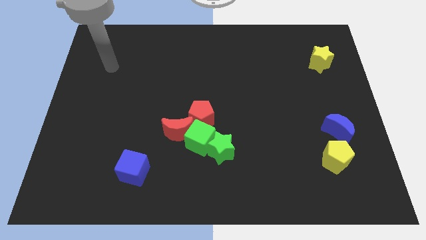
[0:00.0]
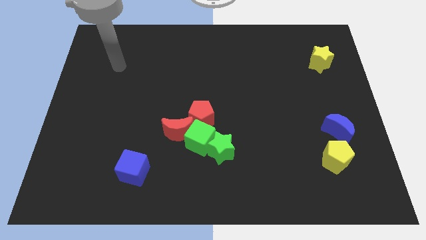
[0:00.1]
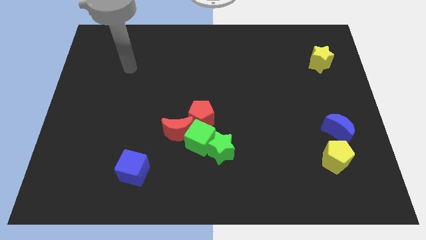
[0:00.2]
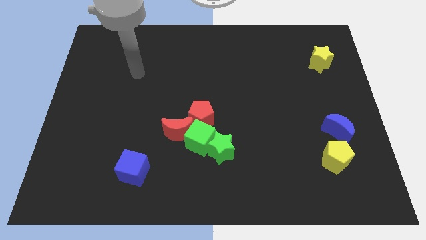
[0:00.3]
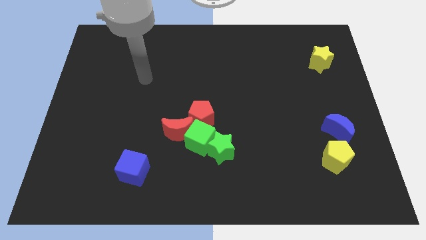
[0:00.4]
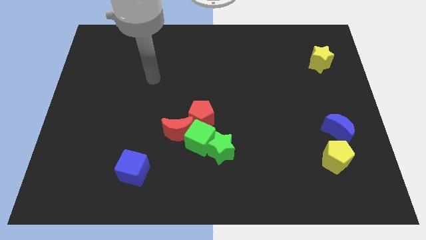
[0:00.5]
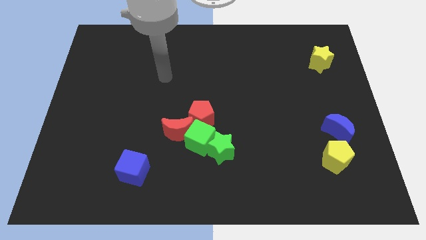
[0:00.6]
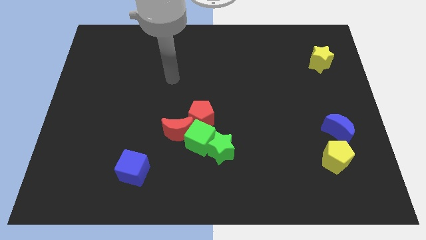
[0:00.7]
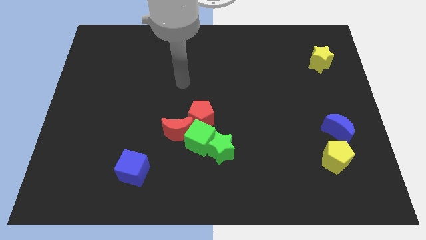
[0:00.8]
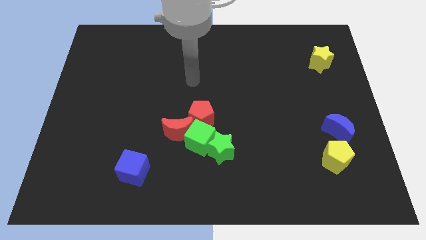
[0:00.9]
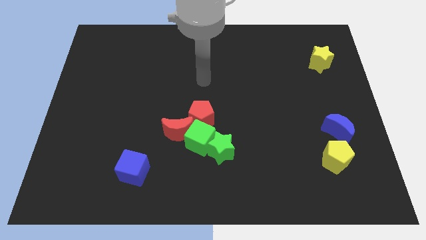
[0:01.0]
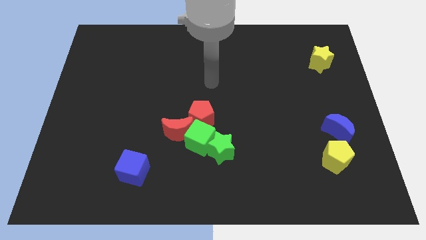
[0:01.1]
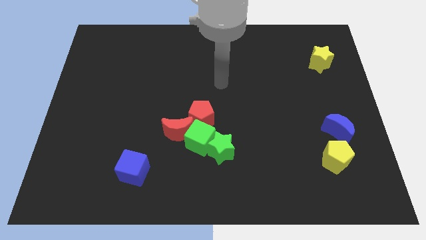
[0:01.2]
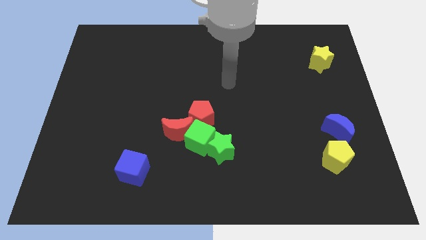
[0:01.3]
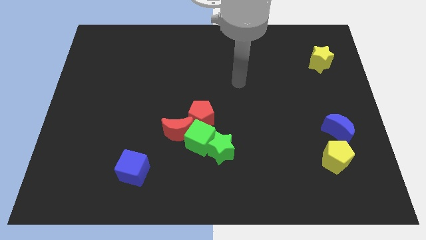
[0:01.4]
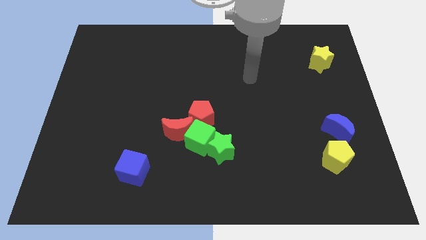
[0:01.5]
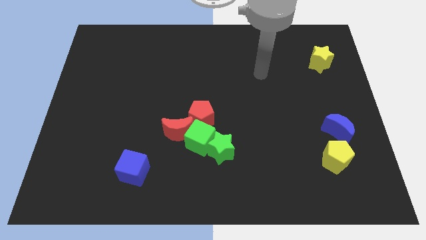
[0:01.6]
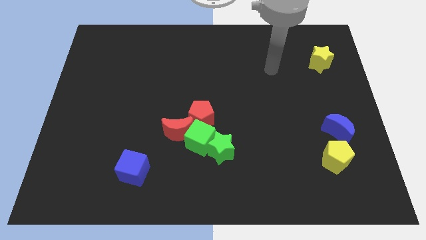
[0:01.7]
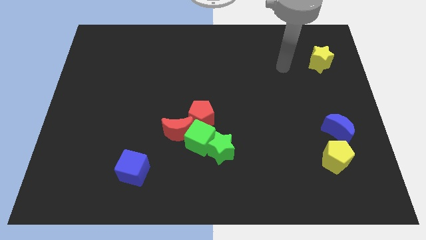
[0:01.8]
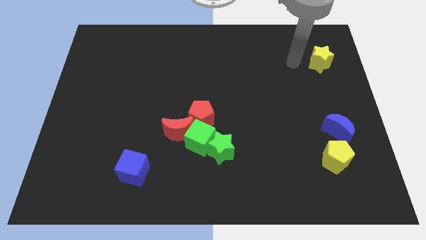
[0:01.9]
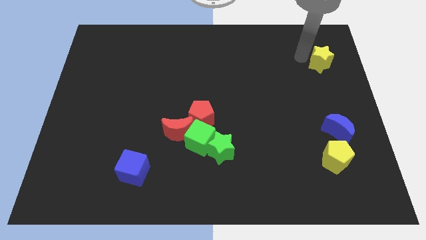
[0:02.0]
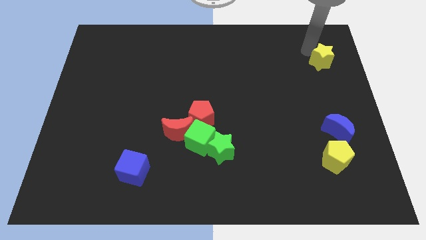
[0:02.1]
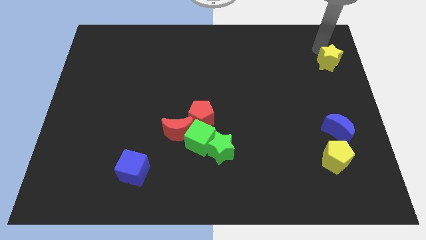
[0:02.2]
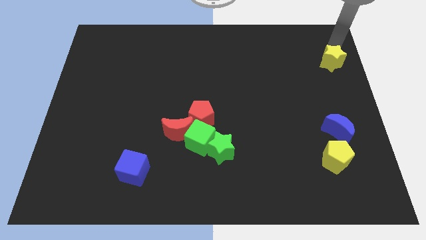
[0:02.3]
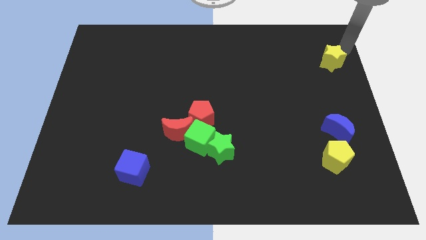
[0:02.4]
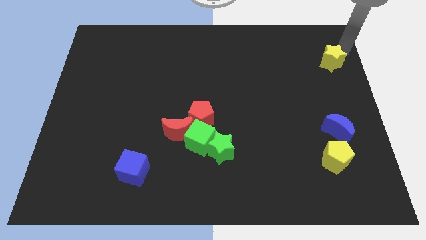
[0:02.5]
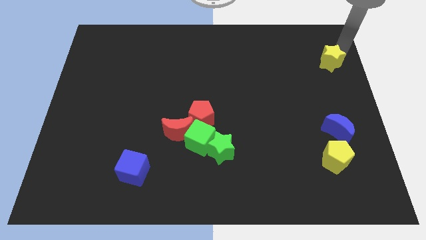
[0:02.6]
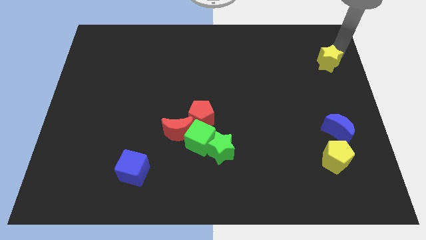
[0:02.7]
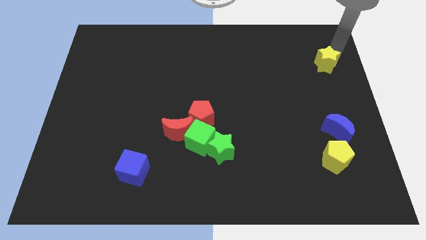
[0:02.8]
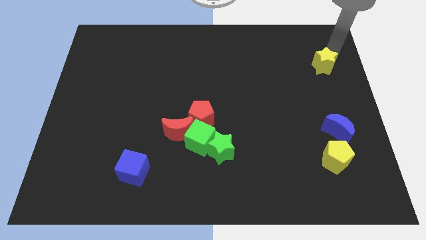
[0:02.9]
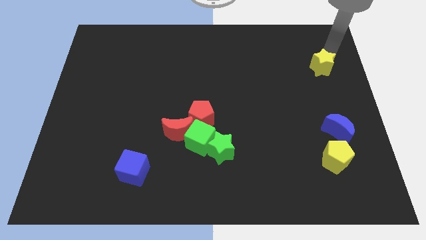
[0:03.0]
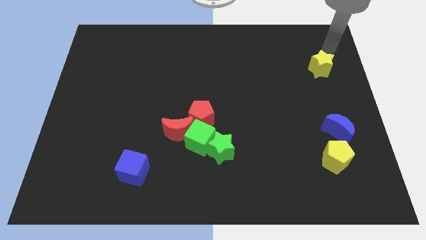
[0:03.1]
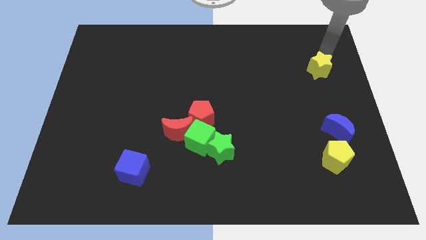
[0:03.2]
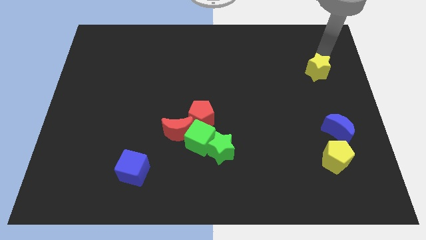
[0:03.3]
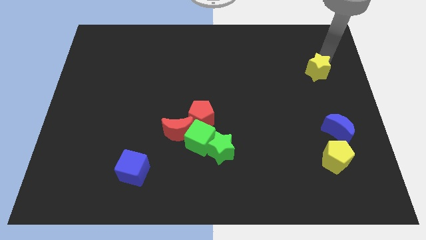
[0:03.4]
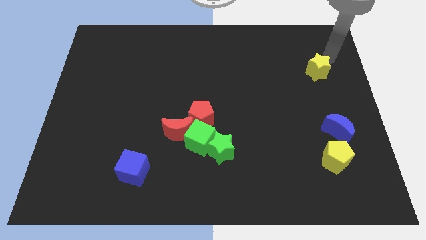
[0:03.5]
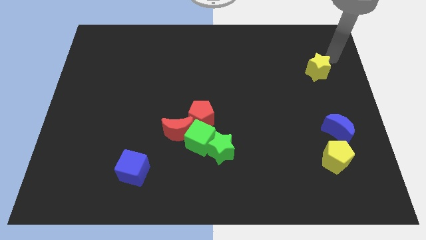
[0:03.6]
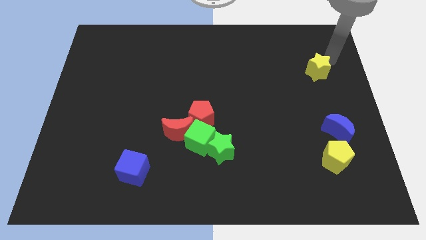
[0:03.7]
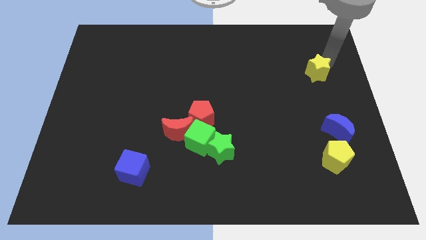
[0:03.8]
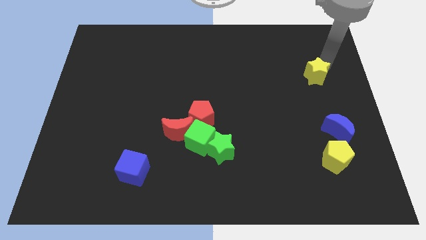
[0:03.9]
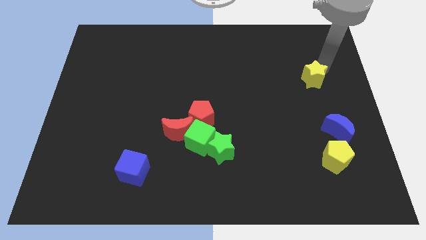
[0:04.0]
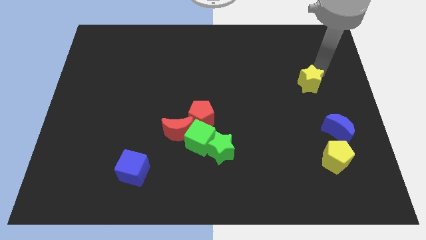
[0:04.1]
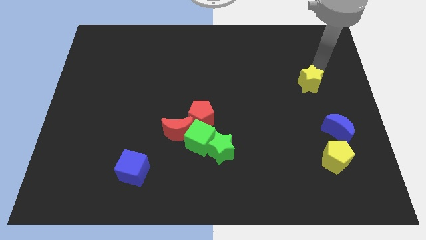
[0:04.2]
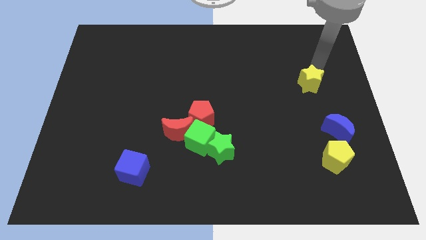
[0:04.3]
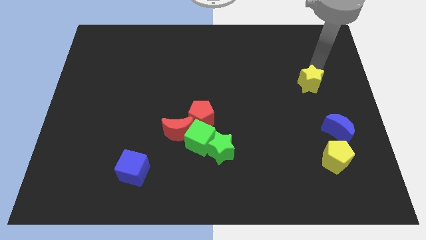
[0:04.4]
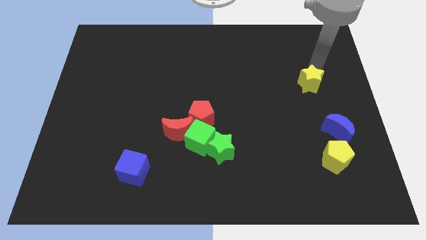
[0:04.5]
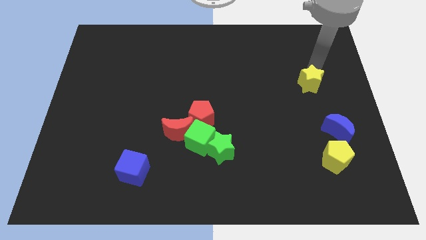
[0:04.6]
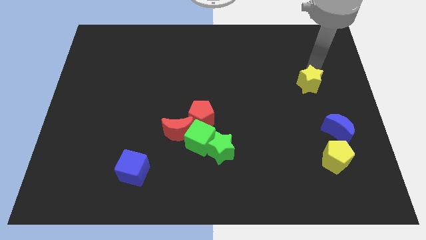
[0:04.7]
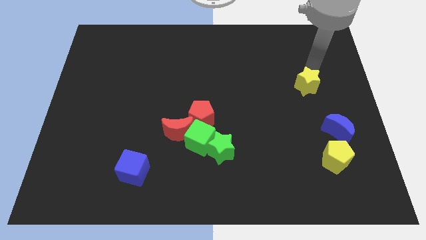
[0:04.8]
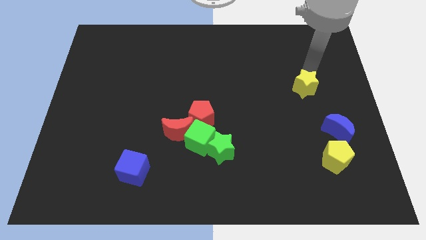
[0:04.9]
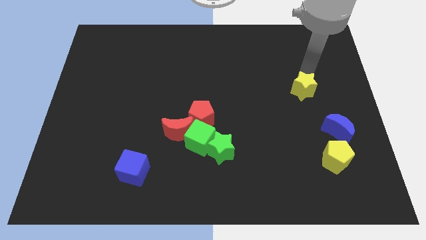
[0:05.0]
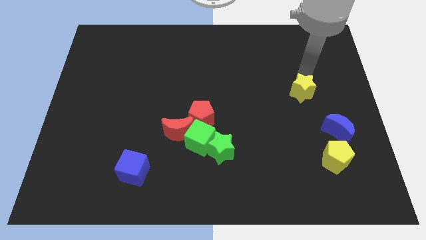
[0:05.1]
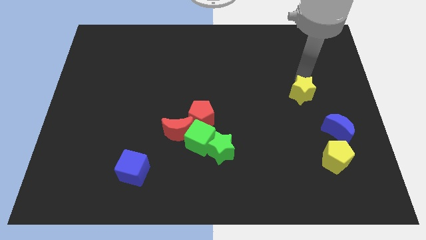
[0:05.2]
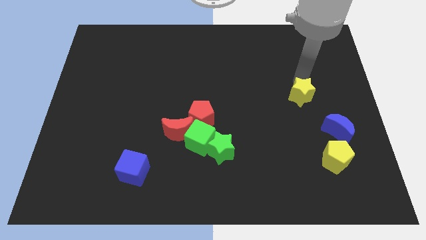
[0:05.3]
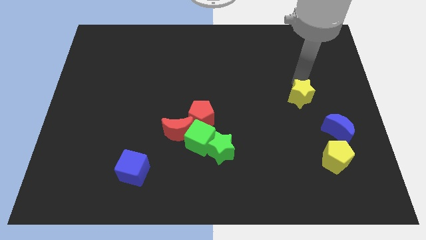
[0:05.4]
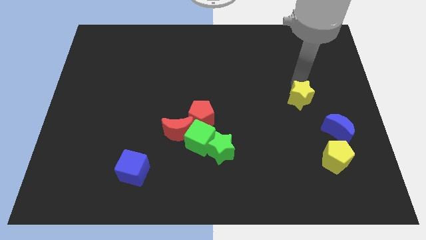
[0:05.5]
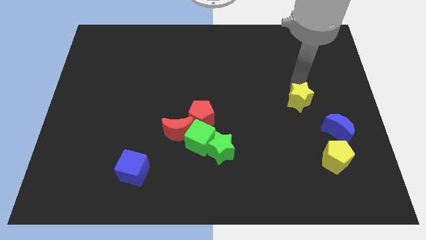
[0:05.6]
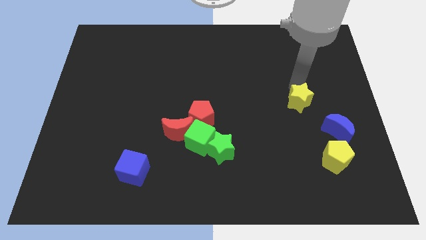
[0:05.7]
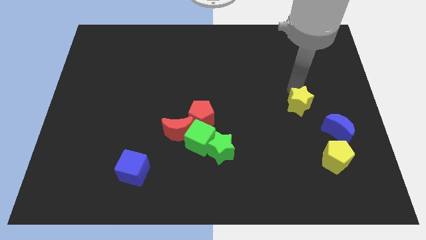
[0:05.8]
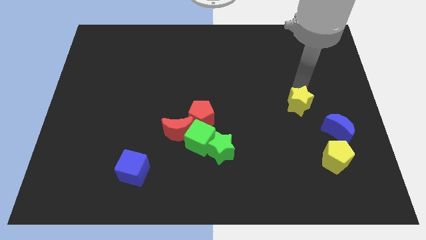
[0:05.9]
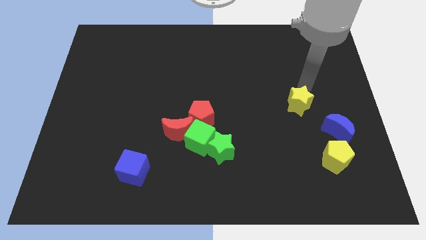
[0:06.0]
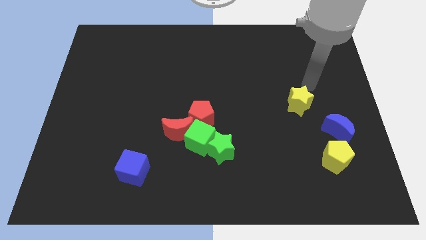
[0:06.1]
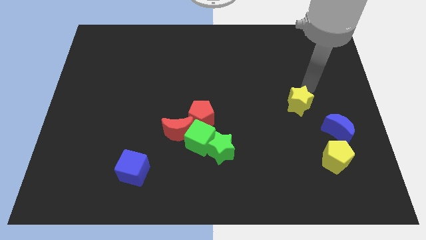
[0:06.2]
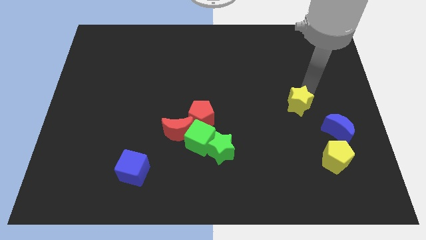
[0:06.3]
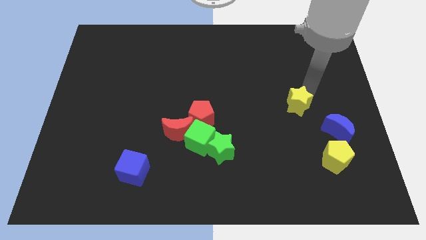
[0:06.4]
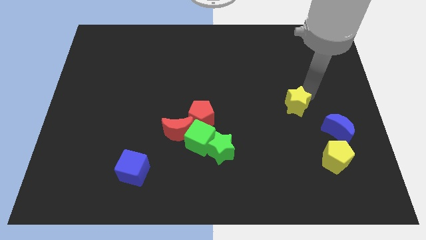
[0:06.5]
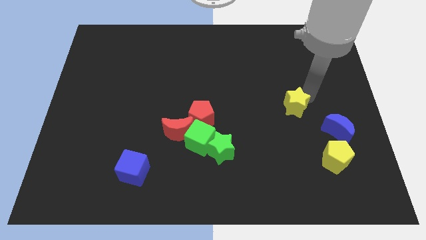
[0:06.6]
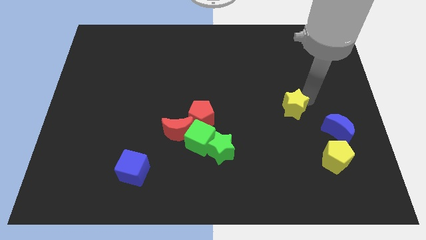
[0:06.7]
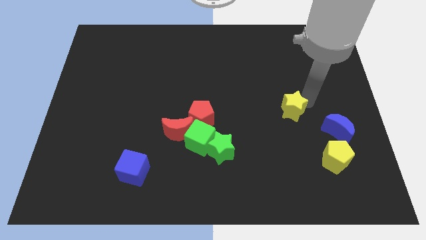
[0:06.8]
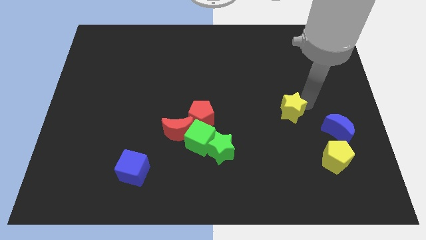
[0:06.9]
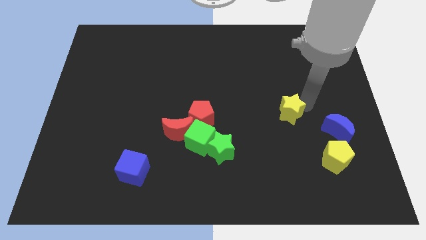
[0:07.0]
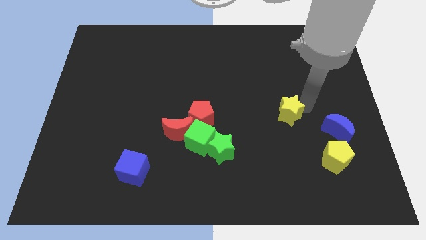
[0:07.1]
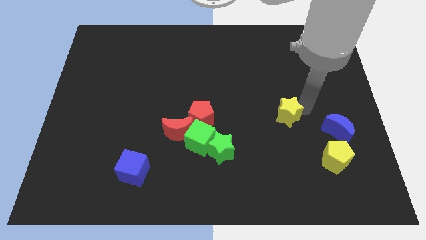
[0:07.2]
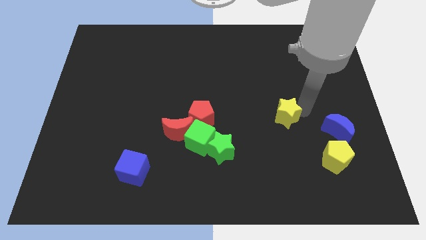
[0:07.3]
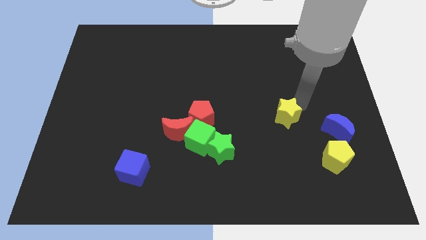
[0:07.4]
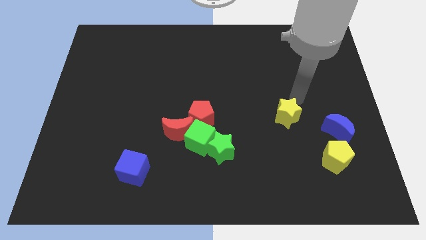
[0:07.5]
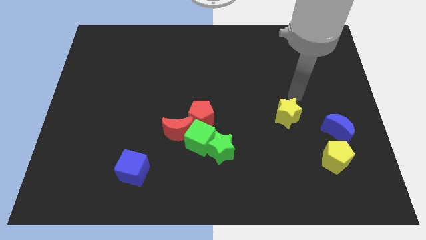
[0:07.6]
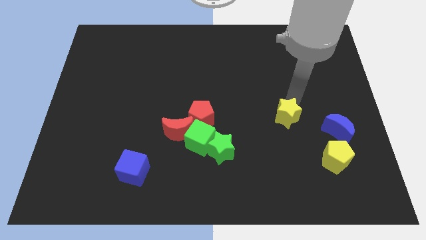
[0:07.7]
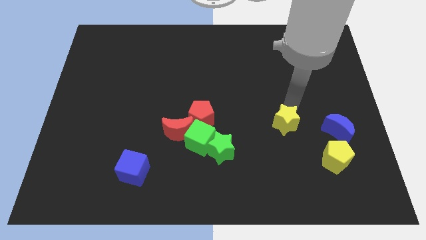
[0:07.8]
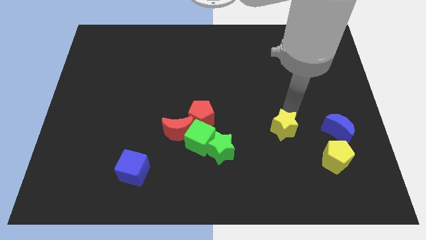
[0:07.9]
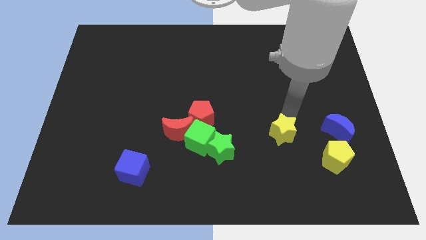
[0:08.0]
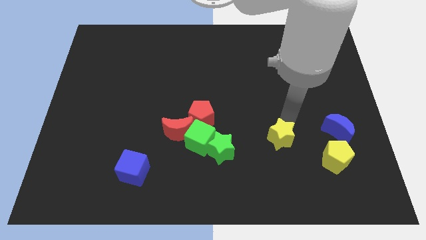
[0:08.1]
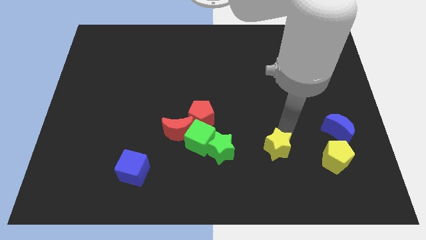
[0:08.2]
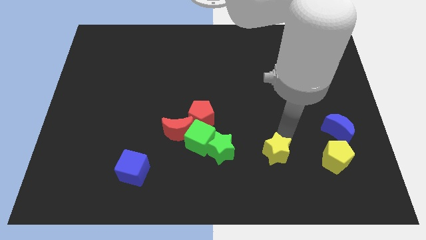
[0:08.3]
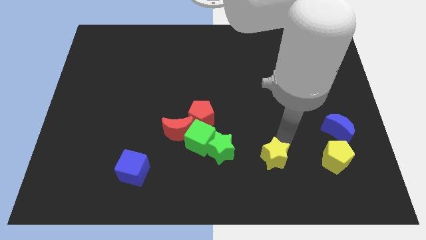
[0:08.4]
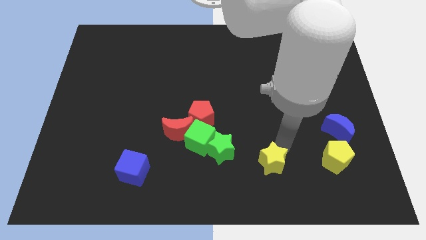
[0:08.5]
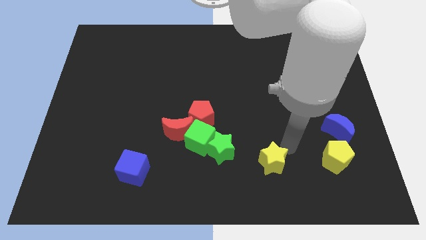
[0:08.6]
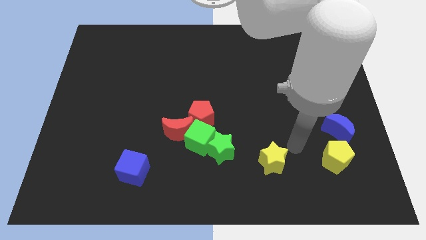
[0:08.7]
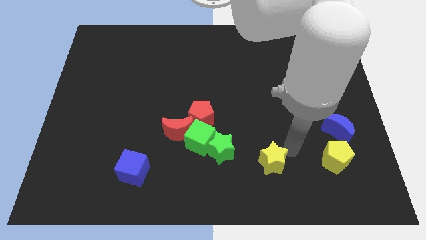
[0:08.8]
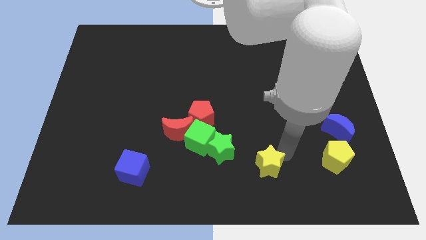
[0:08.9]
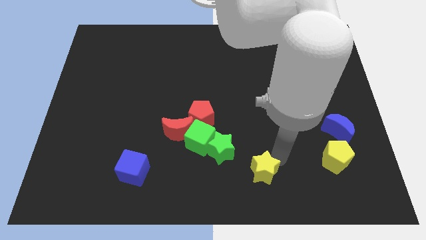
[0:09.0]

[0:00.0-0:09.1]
slide the yellow star to the bottom side
